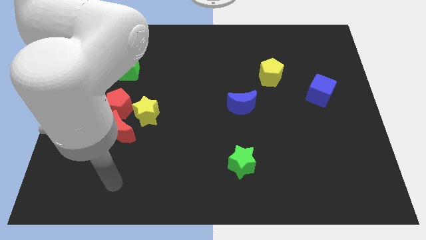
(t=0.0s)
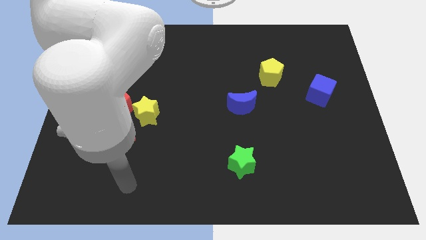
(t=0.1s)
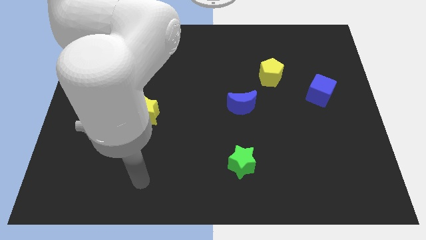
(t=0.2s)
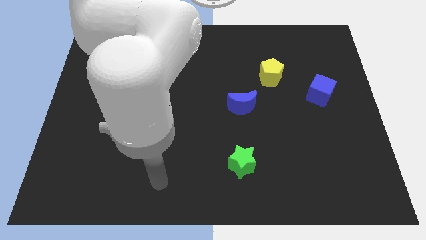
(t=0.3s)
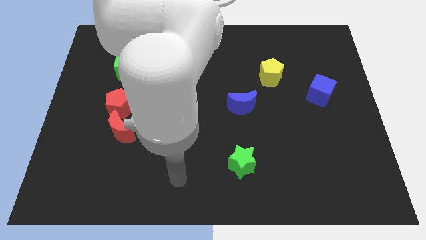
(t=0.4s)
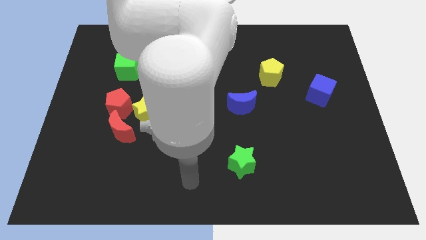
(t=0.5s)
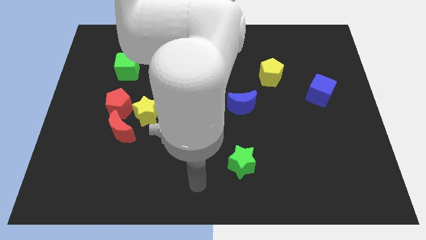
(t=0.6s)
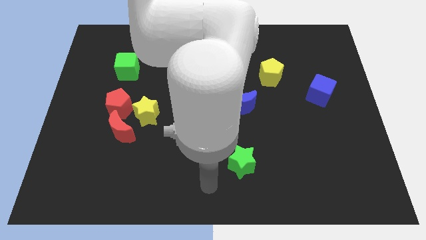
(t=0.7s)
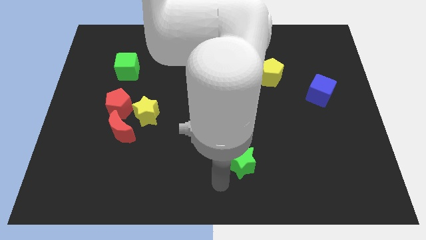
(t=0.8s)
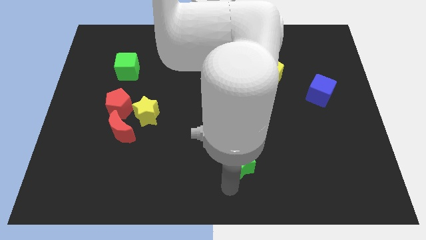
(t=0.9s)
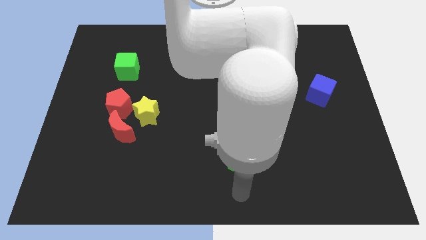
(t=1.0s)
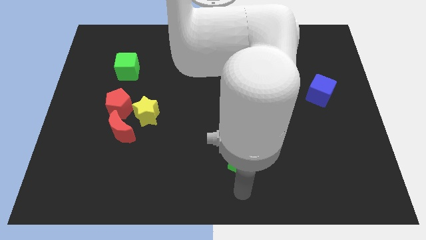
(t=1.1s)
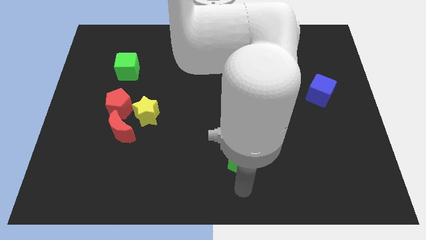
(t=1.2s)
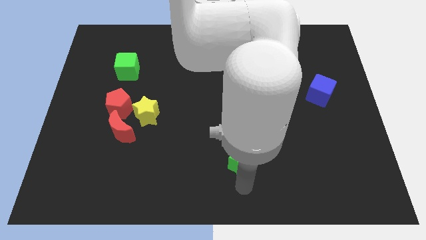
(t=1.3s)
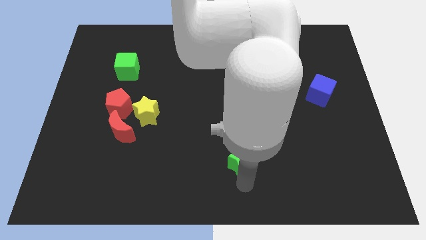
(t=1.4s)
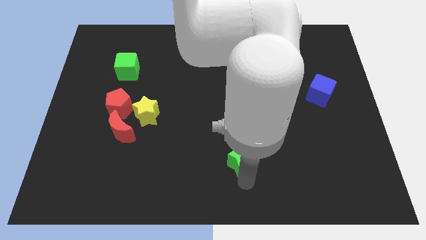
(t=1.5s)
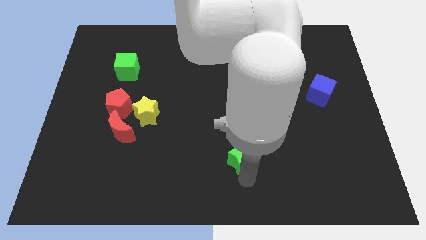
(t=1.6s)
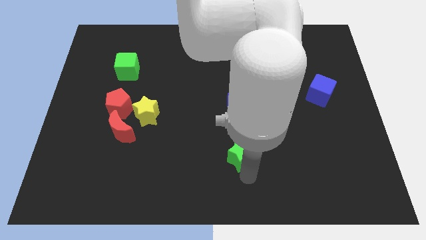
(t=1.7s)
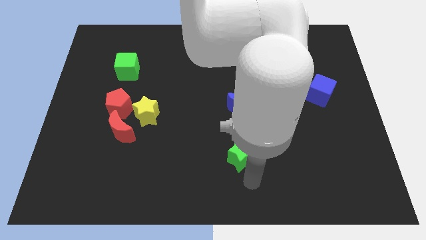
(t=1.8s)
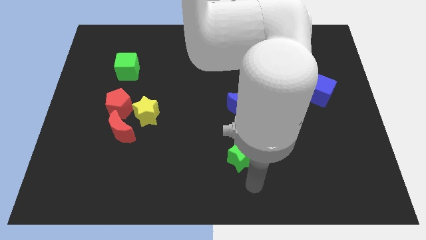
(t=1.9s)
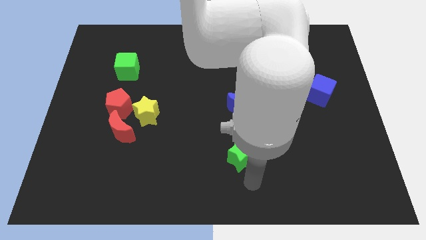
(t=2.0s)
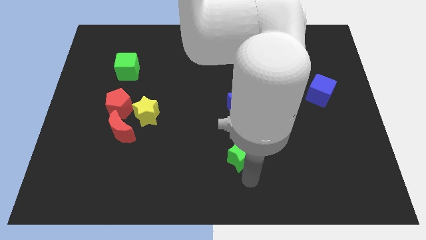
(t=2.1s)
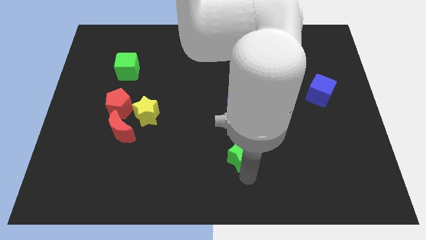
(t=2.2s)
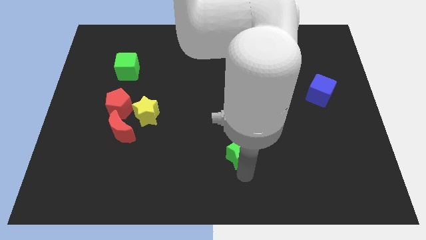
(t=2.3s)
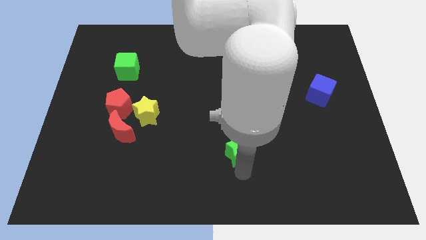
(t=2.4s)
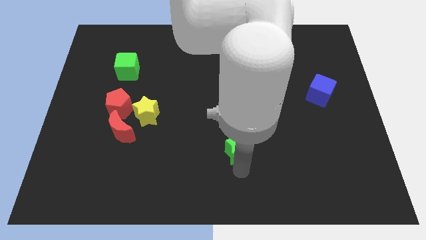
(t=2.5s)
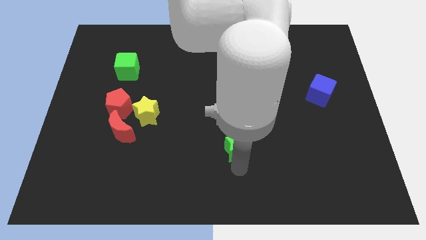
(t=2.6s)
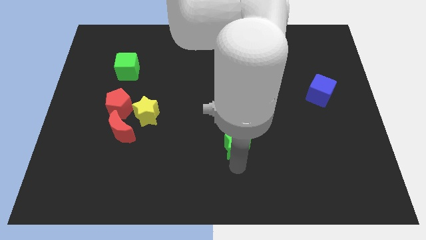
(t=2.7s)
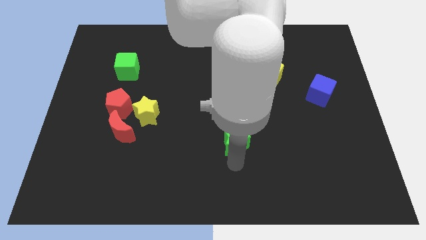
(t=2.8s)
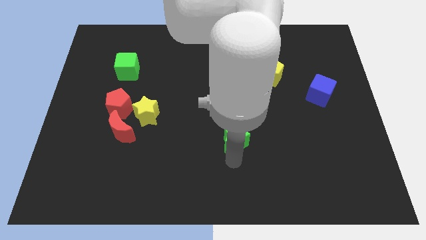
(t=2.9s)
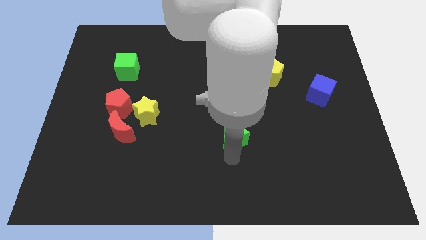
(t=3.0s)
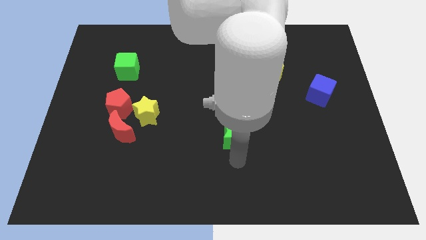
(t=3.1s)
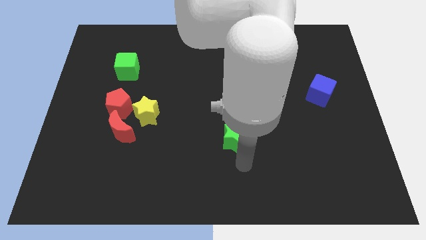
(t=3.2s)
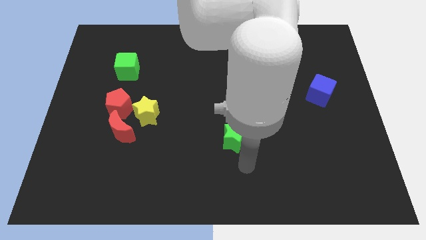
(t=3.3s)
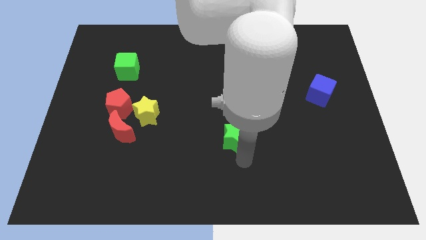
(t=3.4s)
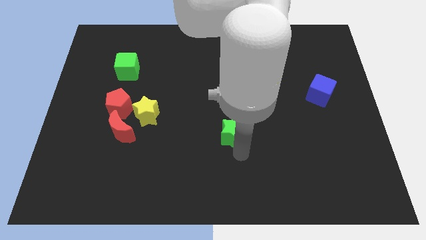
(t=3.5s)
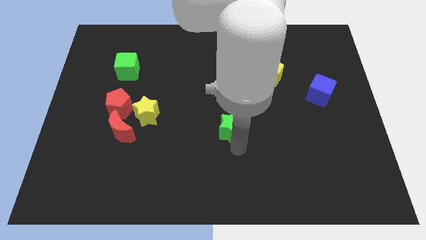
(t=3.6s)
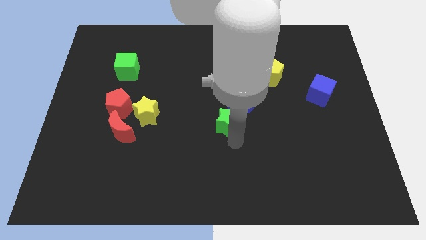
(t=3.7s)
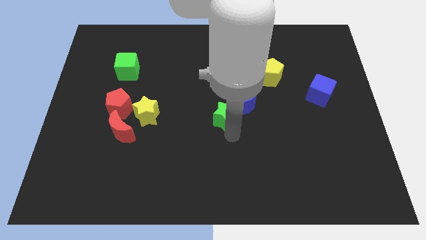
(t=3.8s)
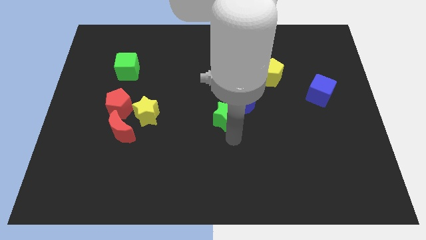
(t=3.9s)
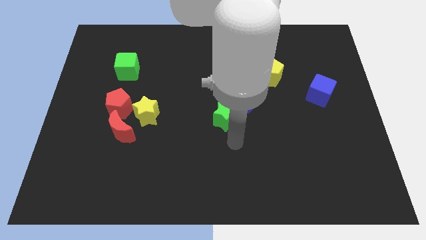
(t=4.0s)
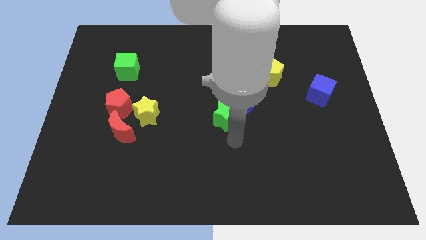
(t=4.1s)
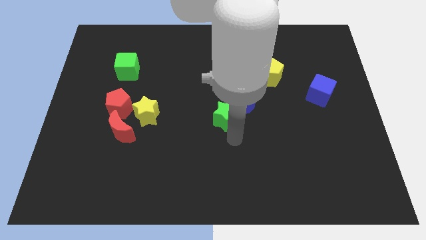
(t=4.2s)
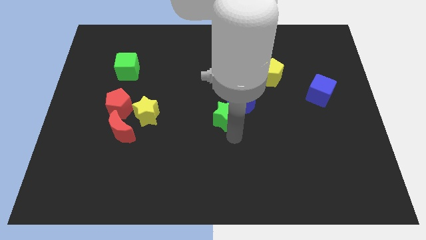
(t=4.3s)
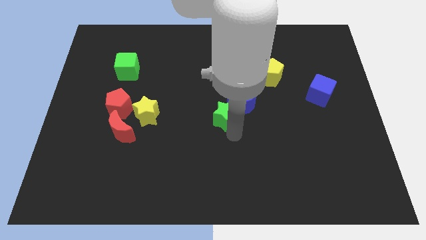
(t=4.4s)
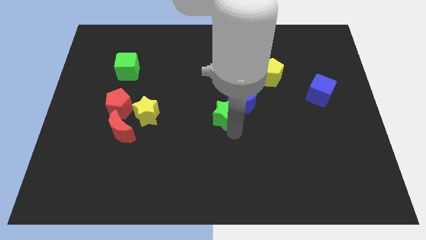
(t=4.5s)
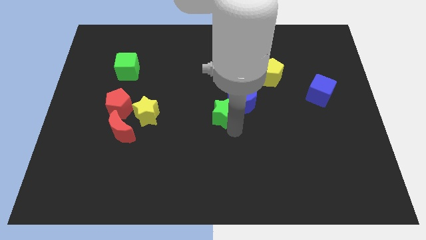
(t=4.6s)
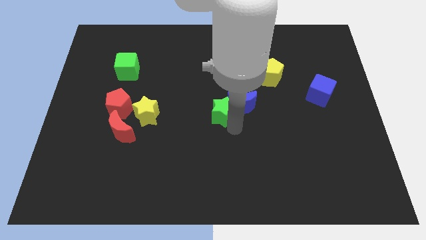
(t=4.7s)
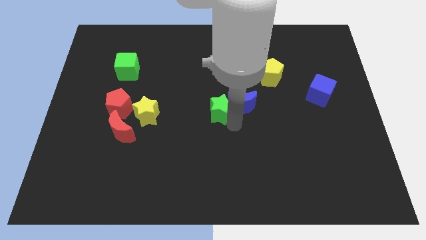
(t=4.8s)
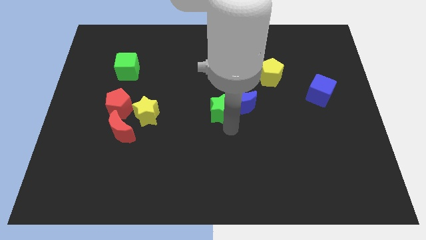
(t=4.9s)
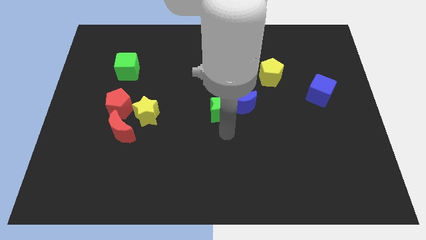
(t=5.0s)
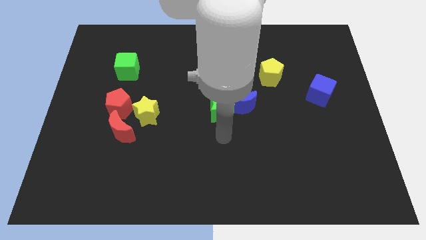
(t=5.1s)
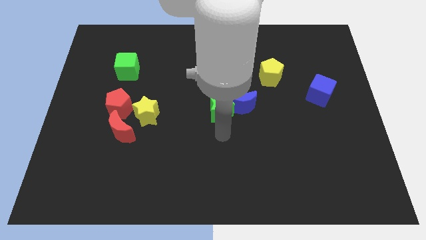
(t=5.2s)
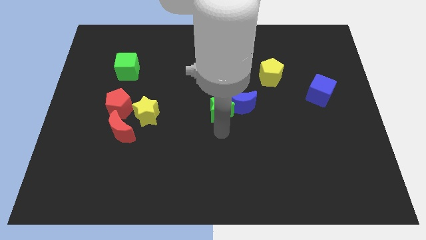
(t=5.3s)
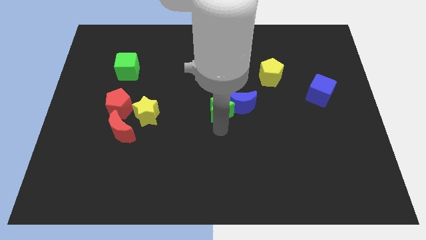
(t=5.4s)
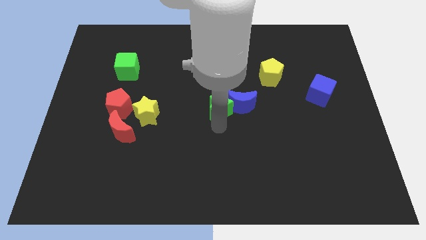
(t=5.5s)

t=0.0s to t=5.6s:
put the green star diagonally up and to the left of the blue moon
